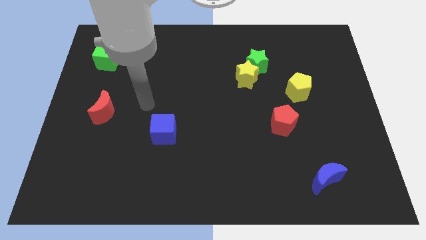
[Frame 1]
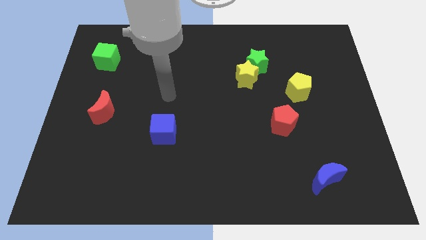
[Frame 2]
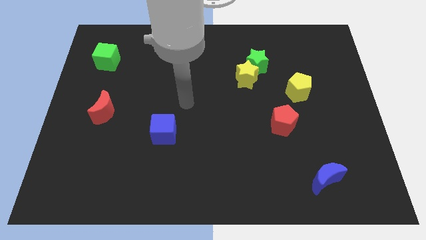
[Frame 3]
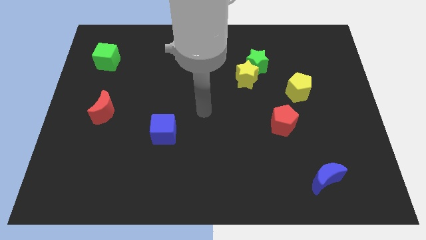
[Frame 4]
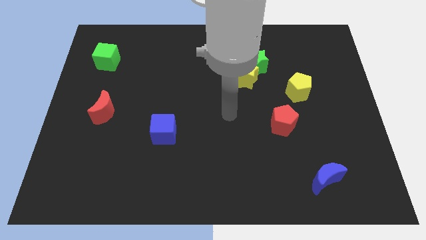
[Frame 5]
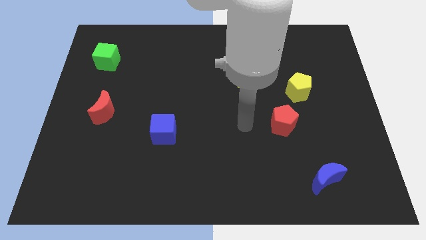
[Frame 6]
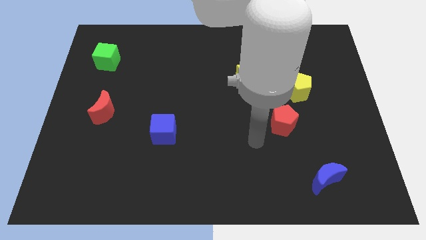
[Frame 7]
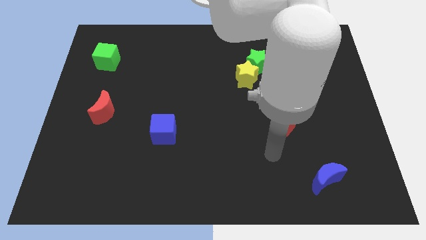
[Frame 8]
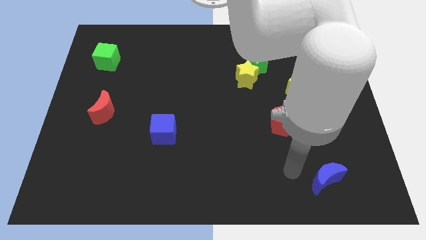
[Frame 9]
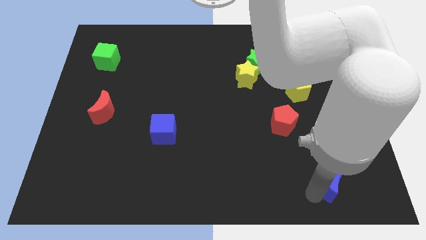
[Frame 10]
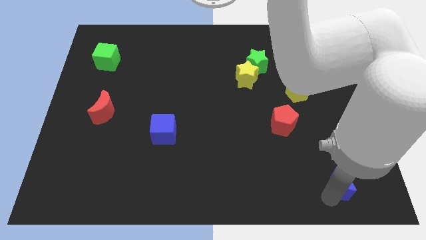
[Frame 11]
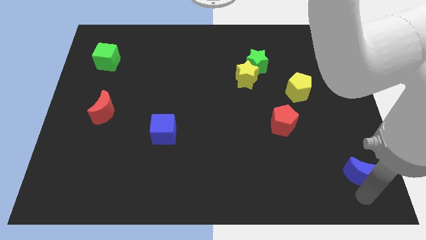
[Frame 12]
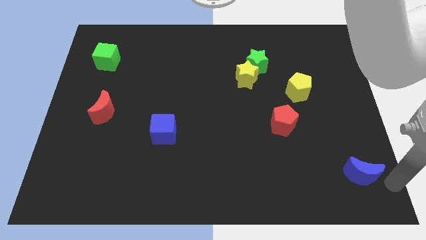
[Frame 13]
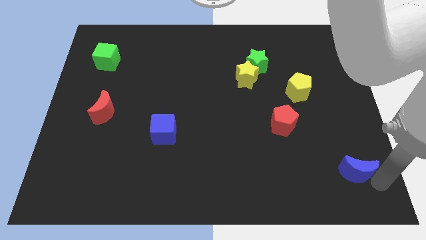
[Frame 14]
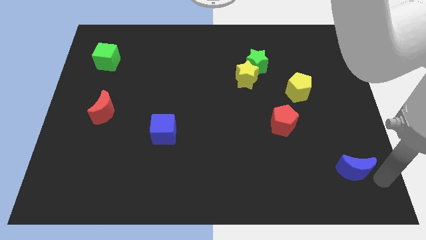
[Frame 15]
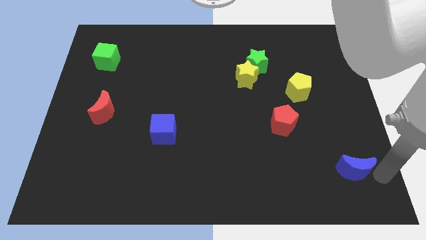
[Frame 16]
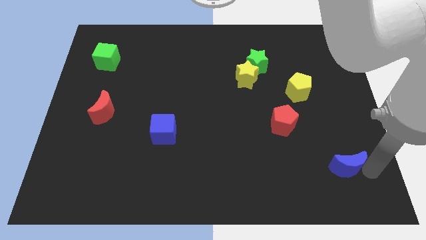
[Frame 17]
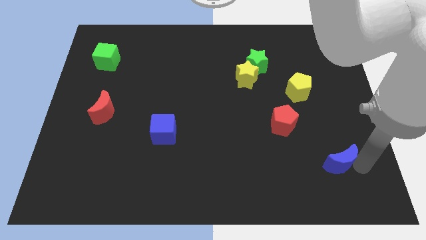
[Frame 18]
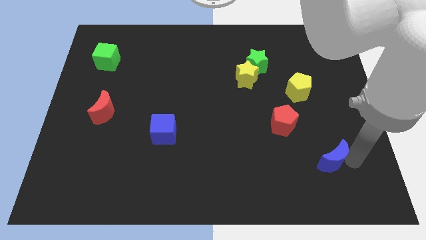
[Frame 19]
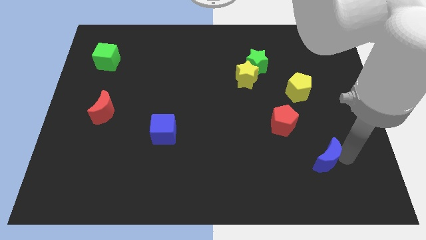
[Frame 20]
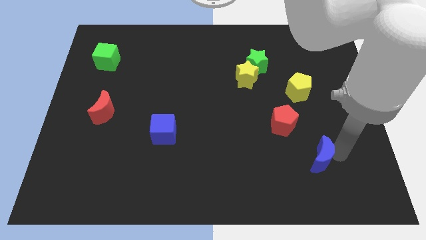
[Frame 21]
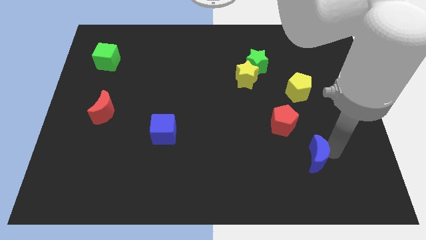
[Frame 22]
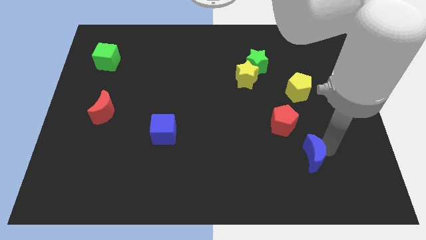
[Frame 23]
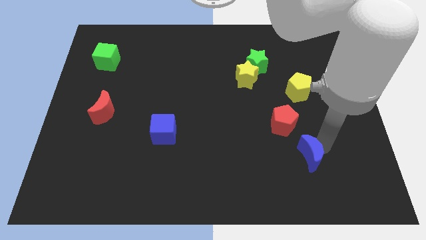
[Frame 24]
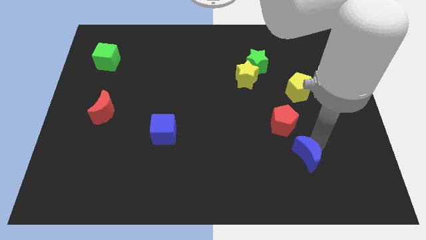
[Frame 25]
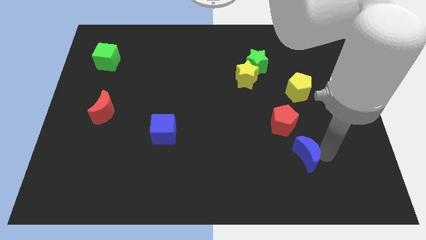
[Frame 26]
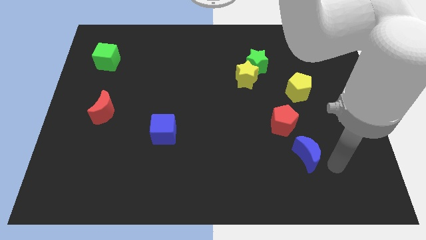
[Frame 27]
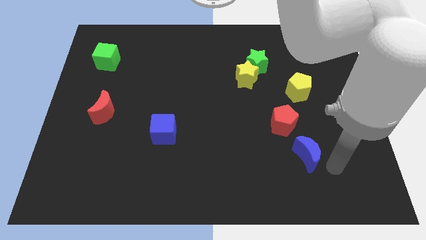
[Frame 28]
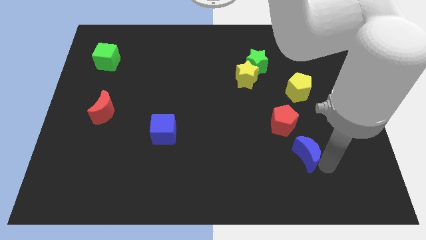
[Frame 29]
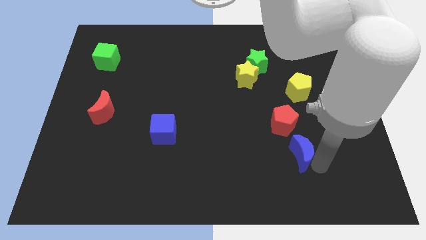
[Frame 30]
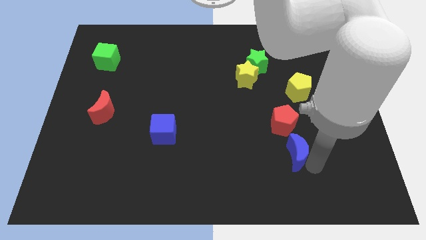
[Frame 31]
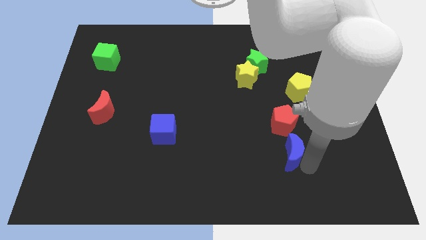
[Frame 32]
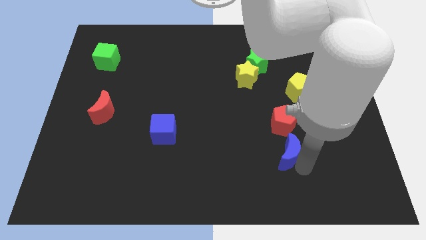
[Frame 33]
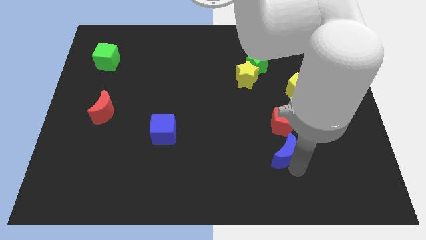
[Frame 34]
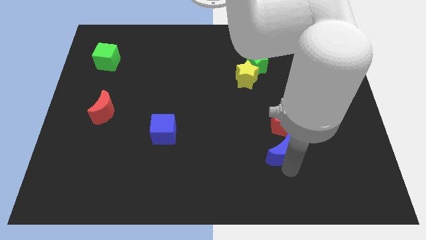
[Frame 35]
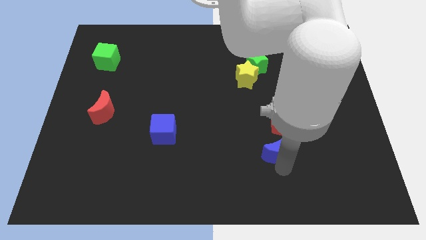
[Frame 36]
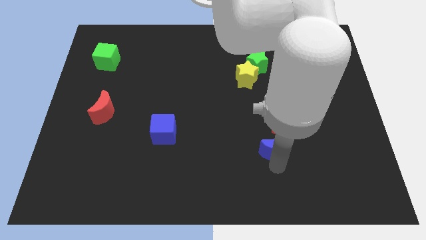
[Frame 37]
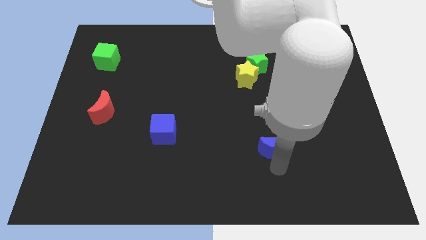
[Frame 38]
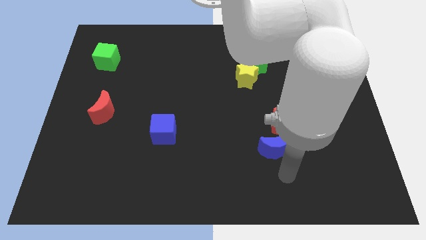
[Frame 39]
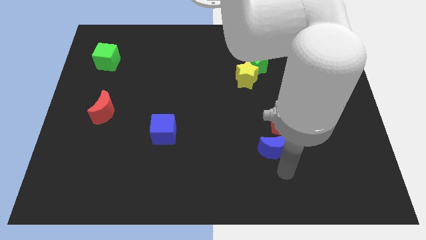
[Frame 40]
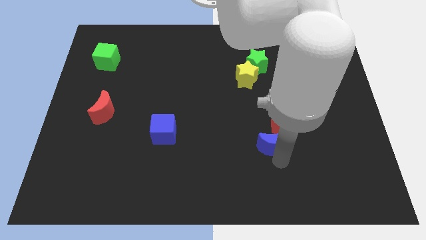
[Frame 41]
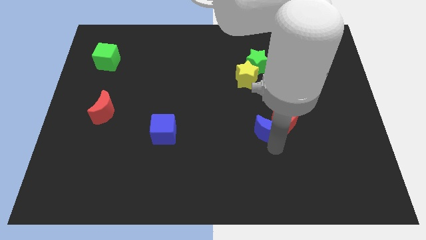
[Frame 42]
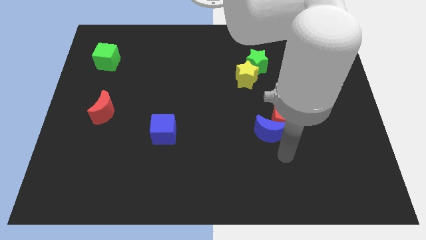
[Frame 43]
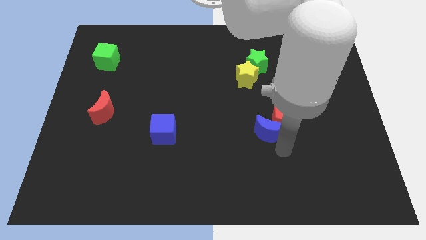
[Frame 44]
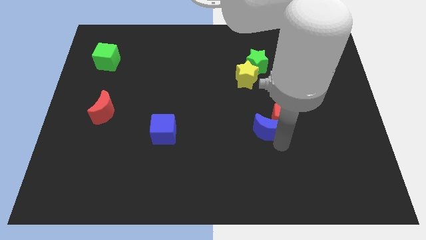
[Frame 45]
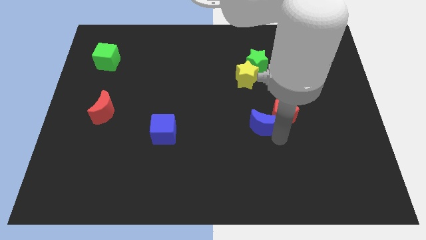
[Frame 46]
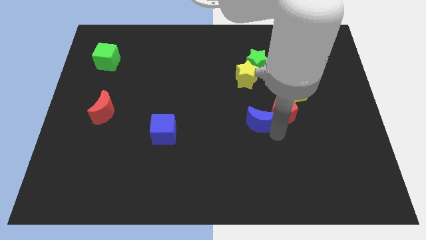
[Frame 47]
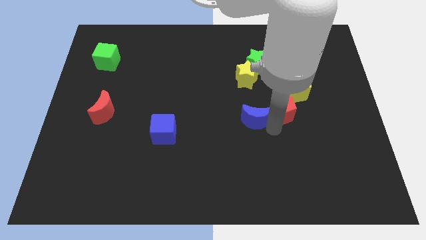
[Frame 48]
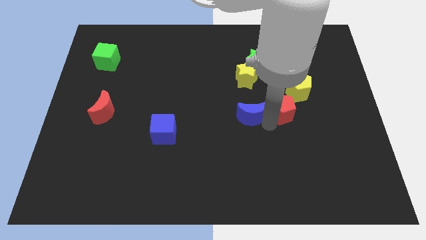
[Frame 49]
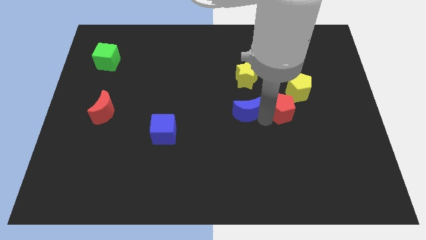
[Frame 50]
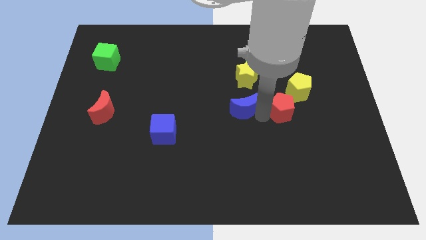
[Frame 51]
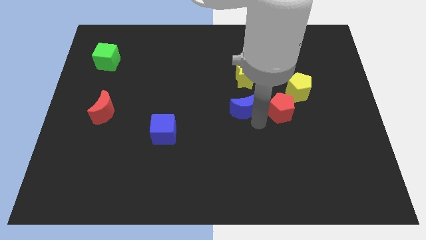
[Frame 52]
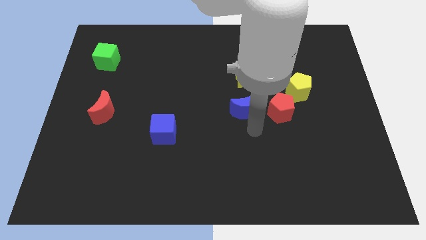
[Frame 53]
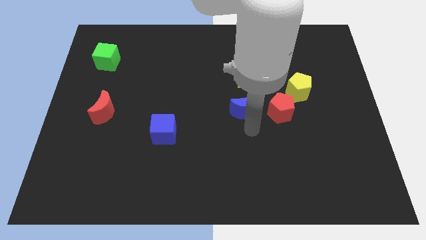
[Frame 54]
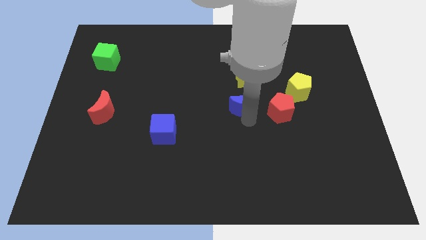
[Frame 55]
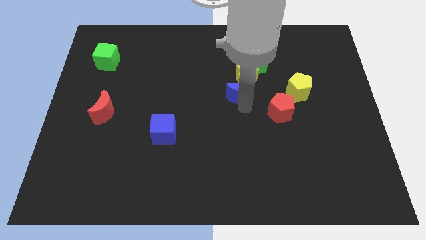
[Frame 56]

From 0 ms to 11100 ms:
put the blue moon diagonally down and to the left of the green star

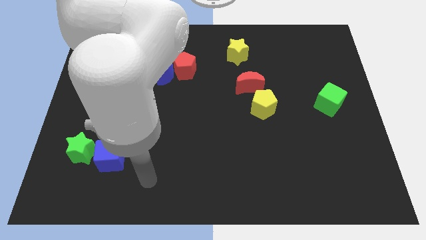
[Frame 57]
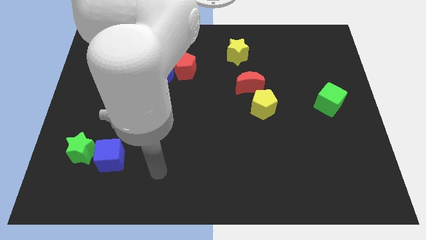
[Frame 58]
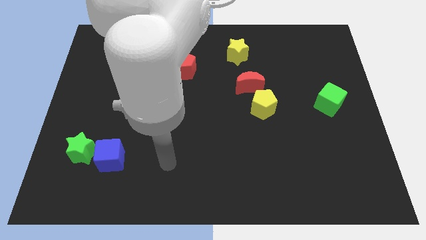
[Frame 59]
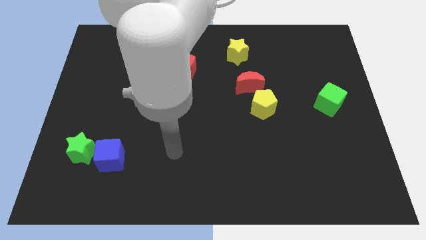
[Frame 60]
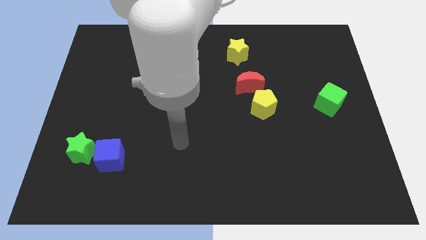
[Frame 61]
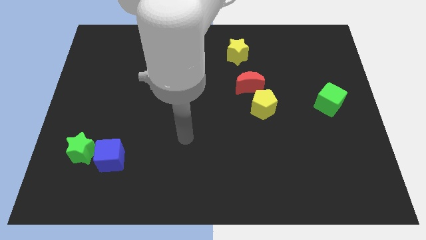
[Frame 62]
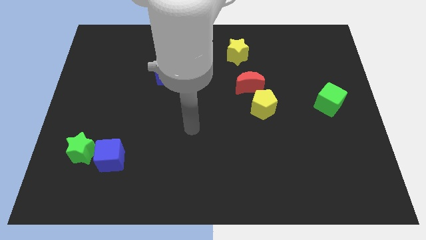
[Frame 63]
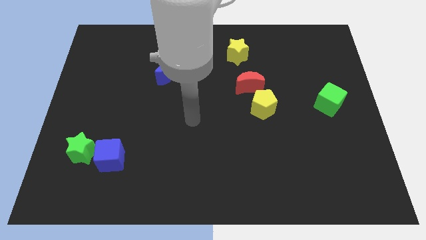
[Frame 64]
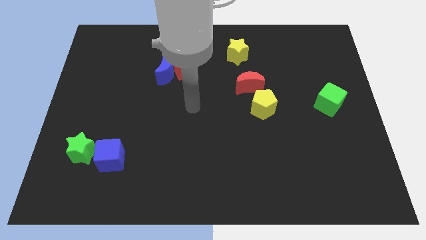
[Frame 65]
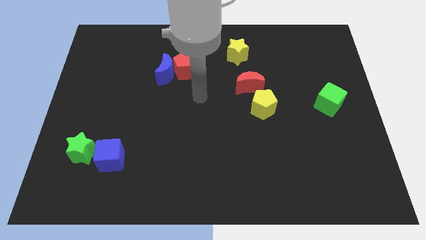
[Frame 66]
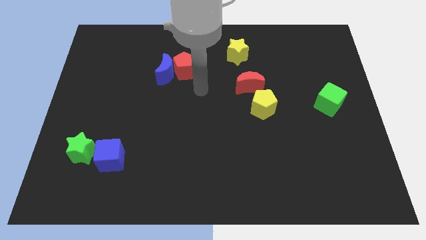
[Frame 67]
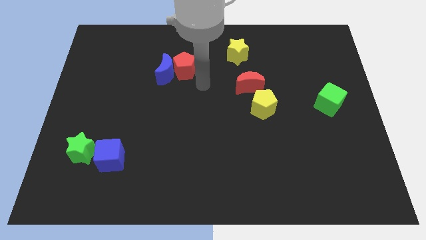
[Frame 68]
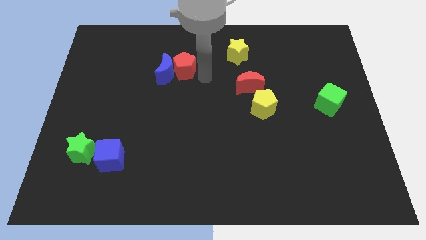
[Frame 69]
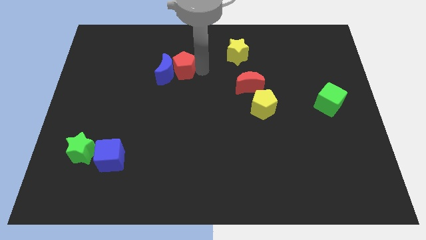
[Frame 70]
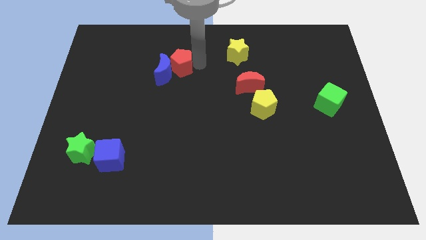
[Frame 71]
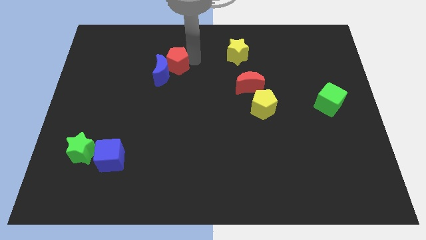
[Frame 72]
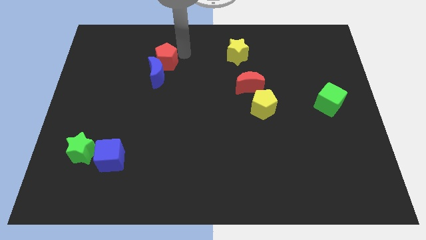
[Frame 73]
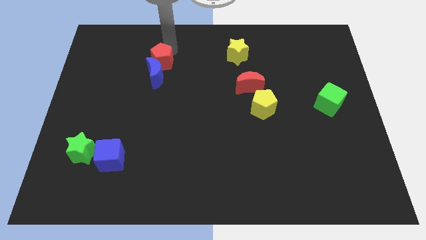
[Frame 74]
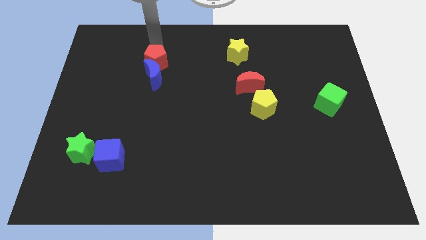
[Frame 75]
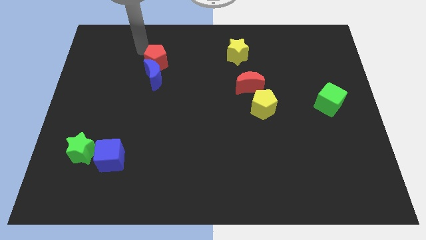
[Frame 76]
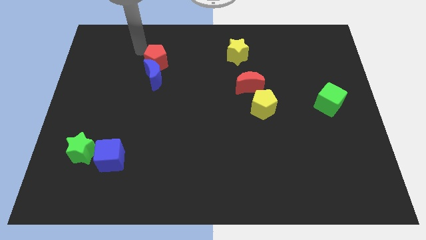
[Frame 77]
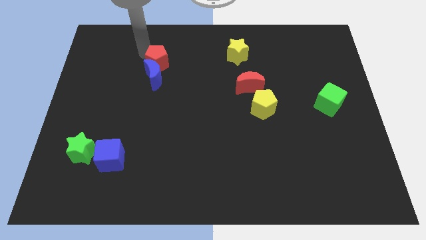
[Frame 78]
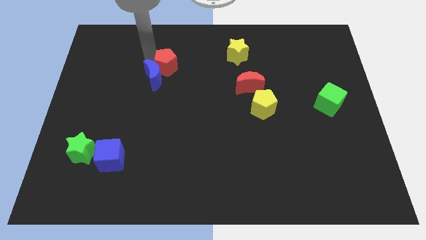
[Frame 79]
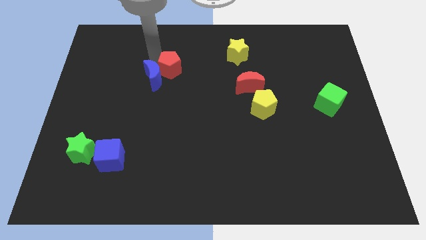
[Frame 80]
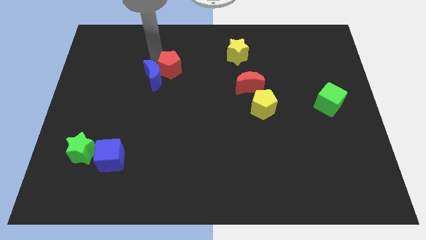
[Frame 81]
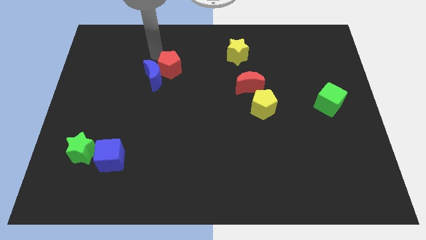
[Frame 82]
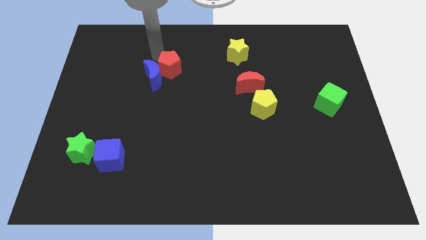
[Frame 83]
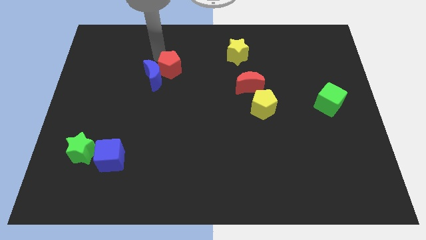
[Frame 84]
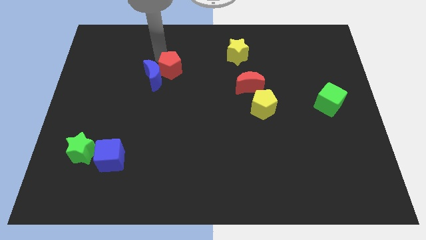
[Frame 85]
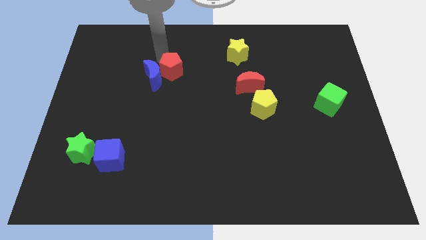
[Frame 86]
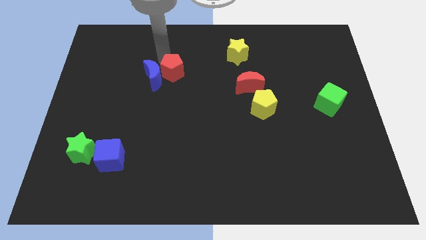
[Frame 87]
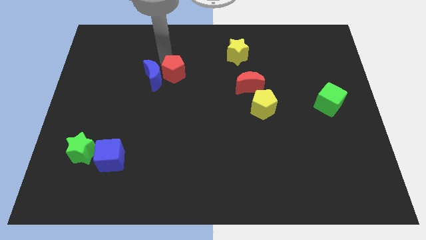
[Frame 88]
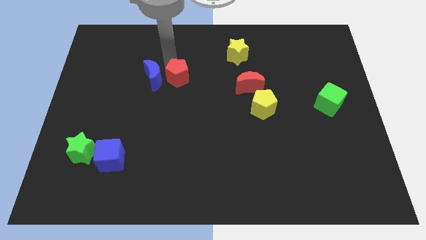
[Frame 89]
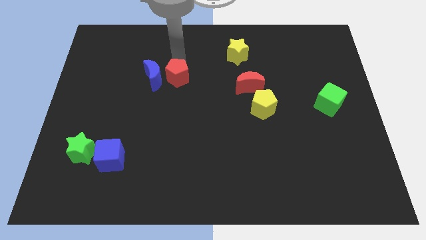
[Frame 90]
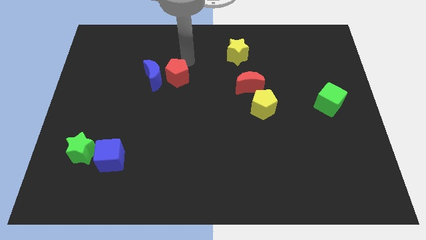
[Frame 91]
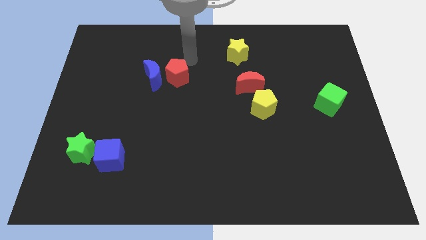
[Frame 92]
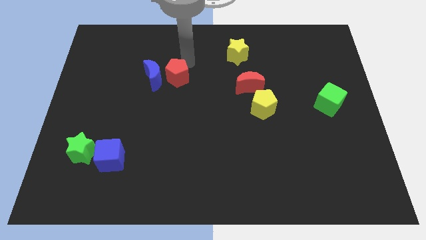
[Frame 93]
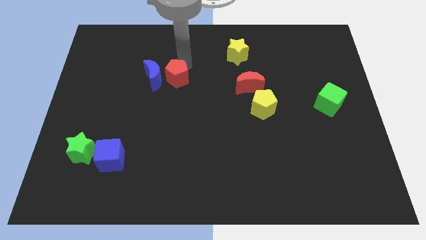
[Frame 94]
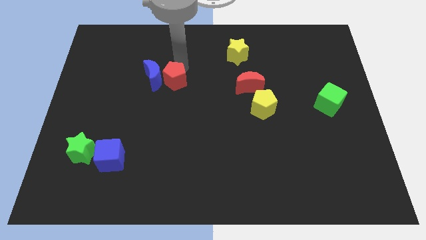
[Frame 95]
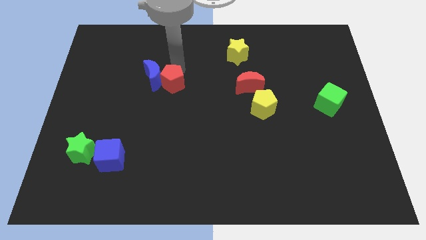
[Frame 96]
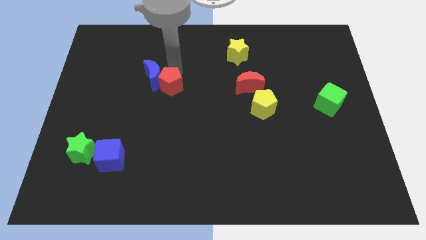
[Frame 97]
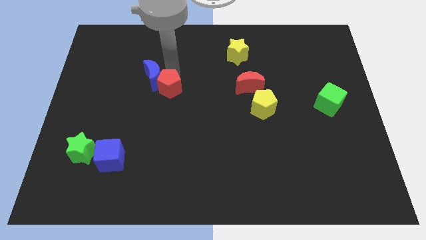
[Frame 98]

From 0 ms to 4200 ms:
slide the red pentagon to the bottom side of the blue moon
